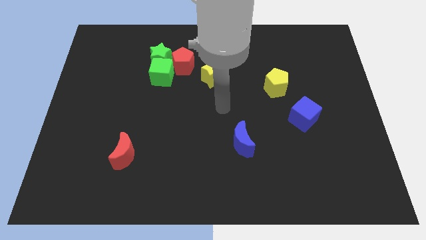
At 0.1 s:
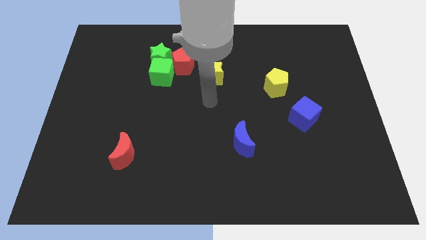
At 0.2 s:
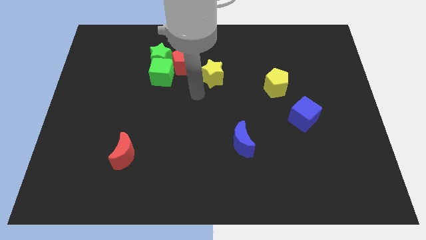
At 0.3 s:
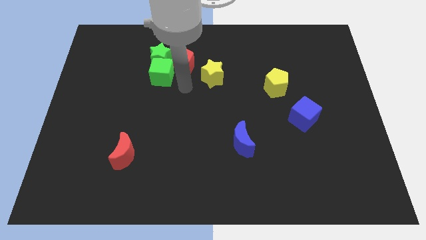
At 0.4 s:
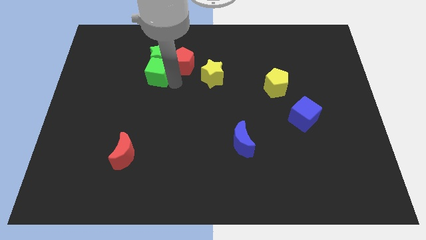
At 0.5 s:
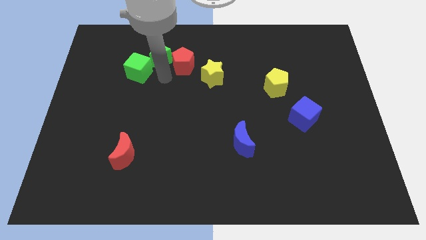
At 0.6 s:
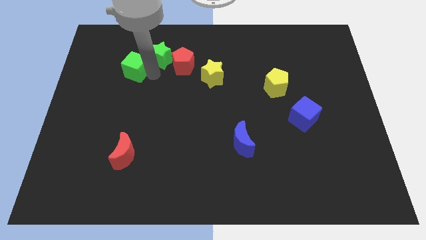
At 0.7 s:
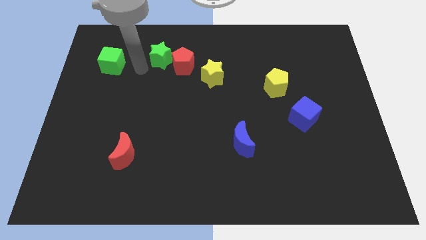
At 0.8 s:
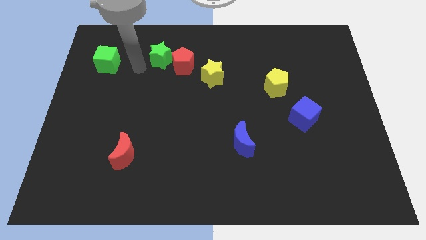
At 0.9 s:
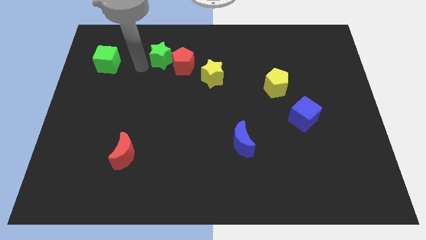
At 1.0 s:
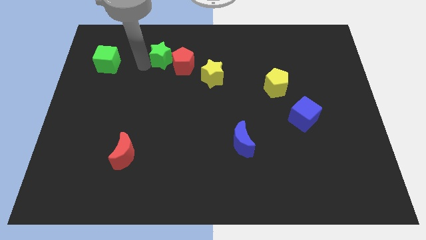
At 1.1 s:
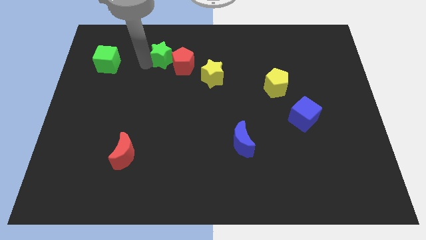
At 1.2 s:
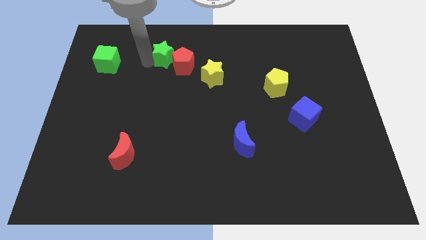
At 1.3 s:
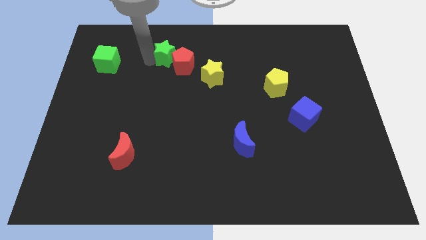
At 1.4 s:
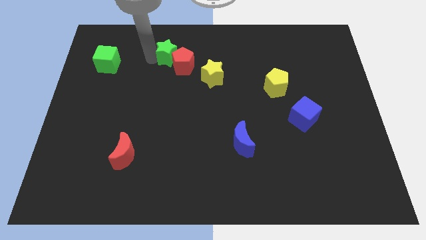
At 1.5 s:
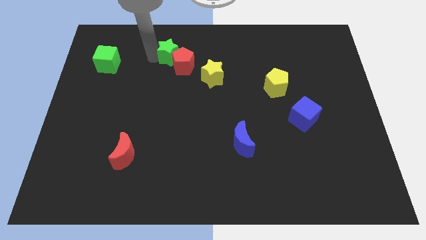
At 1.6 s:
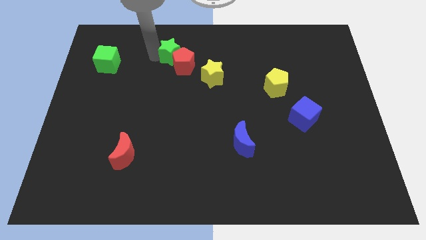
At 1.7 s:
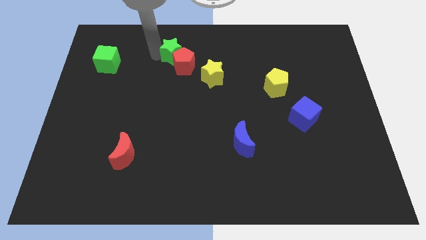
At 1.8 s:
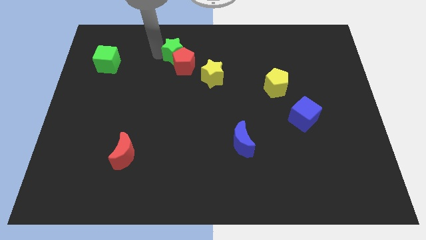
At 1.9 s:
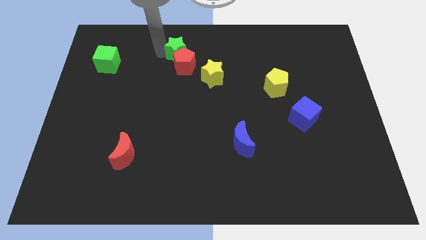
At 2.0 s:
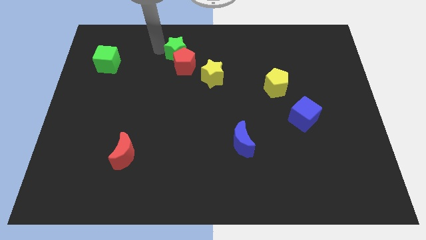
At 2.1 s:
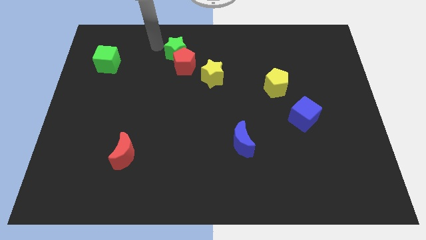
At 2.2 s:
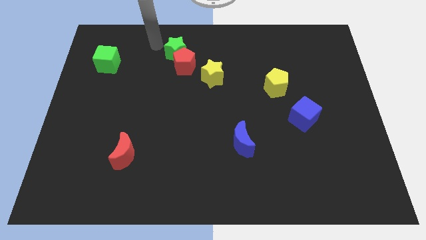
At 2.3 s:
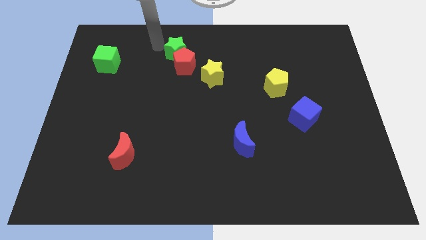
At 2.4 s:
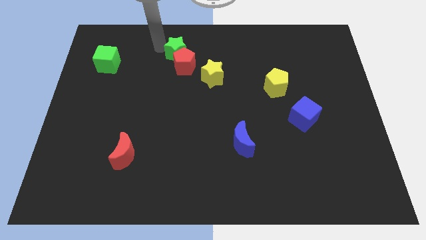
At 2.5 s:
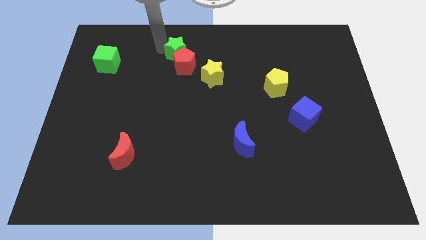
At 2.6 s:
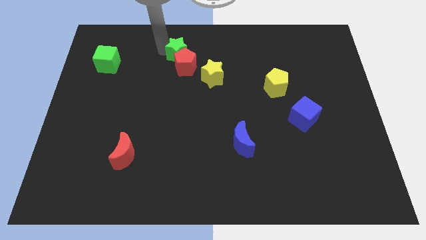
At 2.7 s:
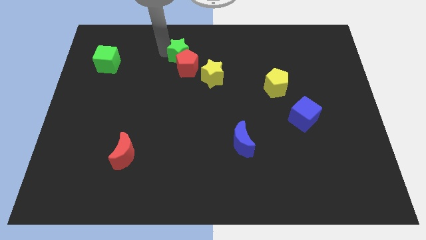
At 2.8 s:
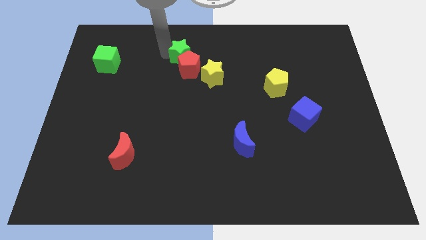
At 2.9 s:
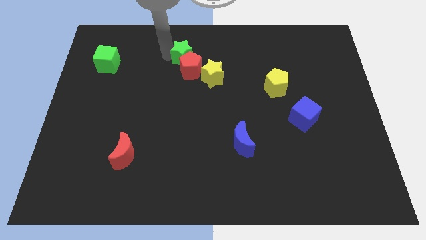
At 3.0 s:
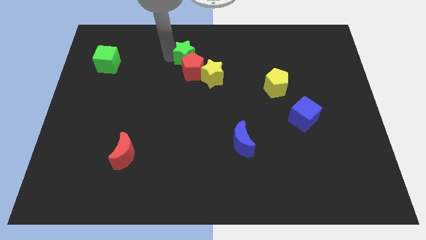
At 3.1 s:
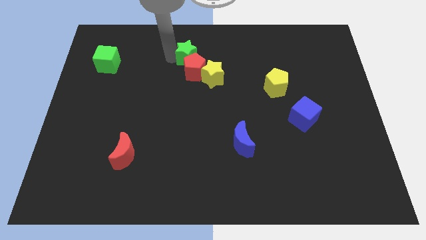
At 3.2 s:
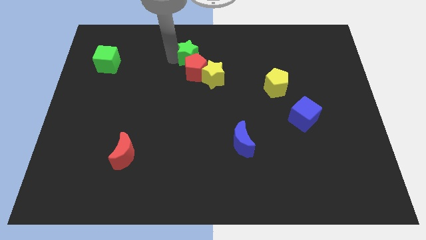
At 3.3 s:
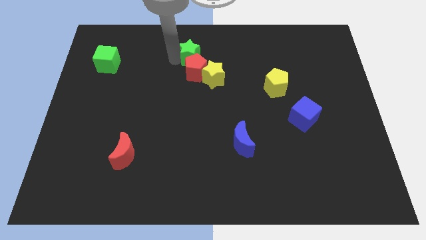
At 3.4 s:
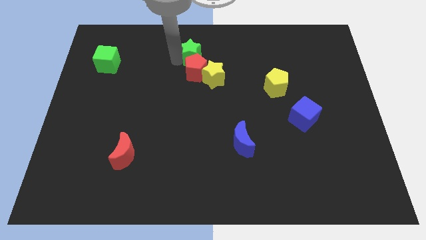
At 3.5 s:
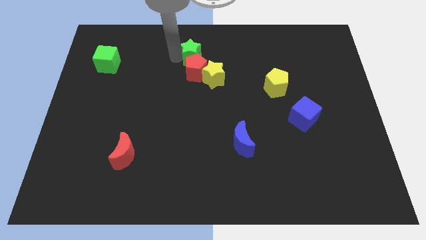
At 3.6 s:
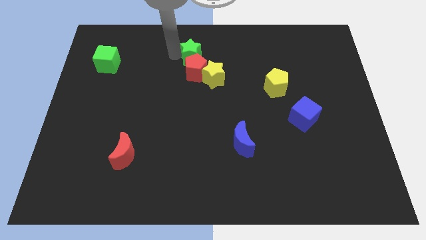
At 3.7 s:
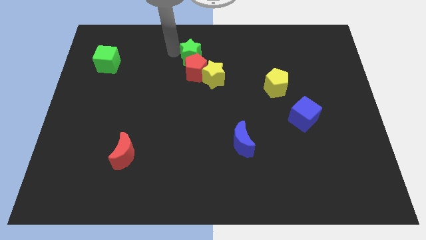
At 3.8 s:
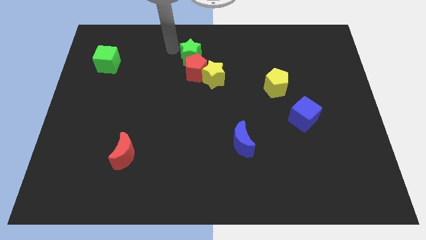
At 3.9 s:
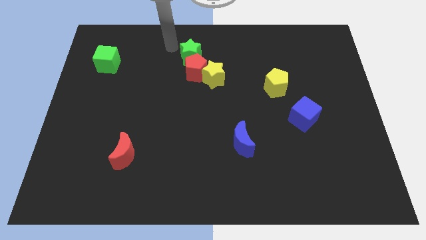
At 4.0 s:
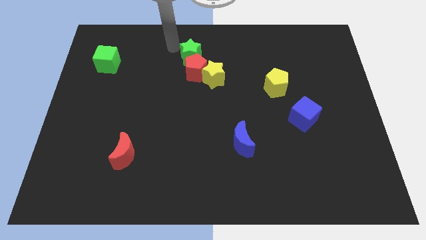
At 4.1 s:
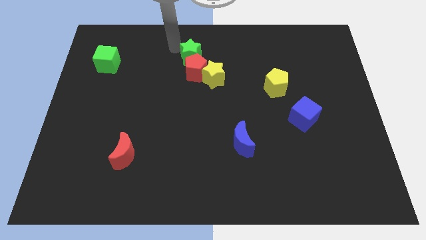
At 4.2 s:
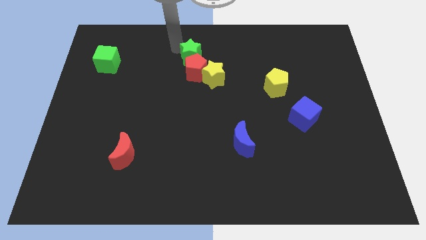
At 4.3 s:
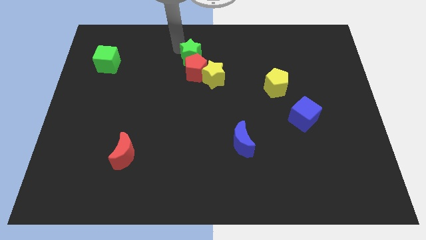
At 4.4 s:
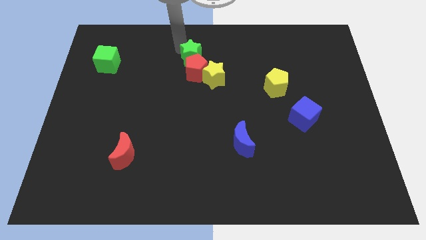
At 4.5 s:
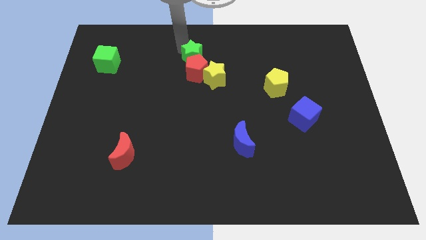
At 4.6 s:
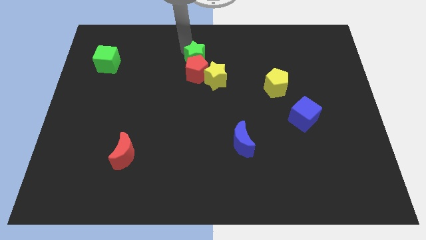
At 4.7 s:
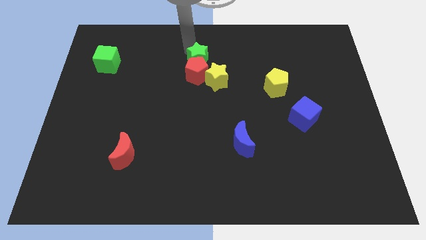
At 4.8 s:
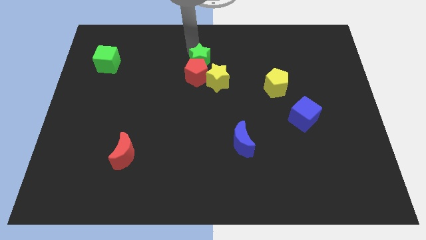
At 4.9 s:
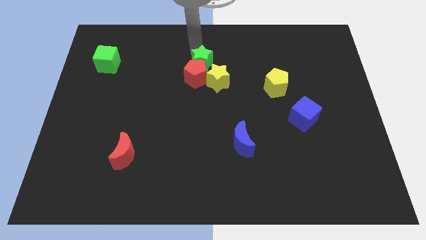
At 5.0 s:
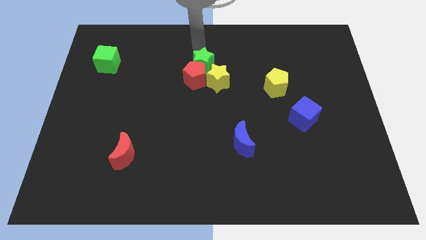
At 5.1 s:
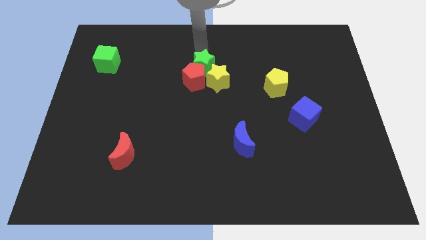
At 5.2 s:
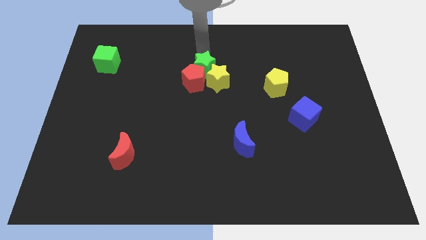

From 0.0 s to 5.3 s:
put the green star to the yellow star

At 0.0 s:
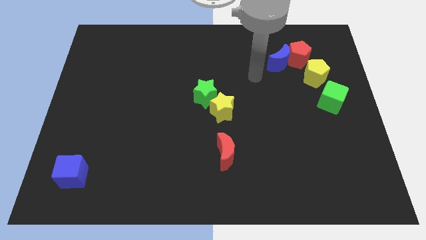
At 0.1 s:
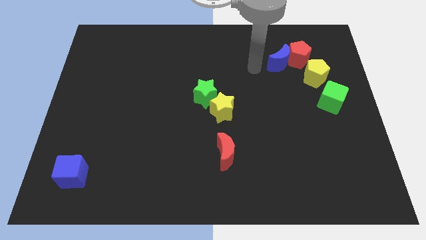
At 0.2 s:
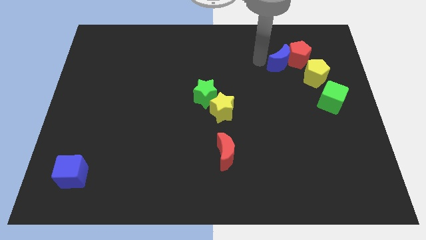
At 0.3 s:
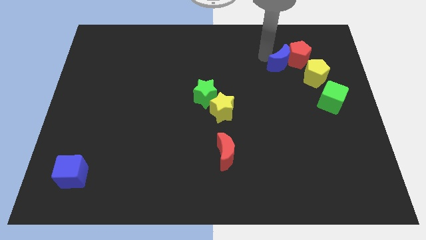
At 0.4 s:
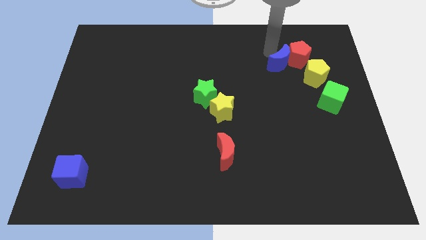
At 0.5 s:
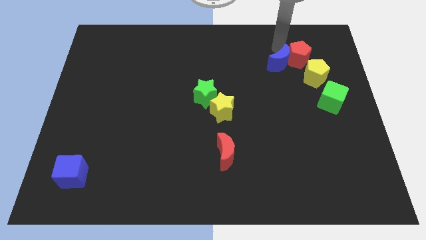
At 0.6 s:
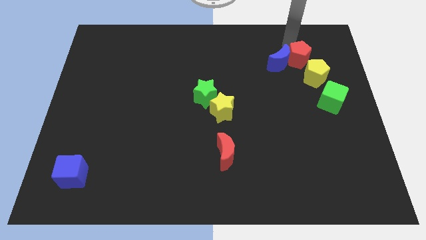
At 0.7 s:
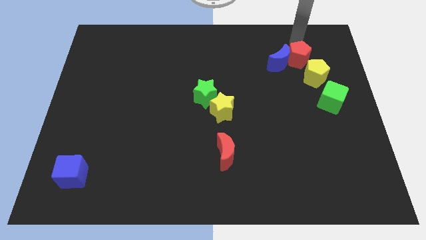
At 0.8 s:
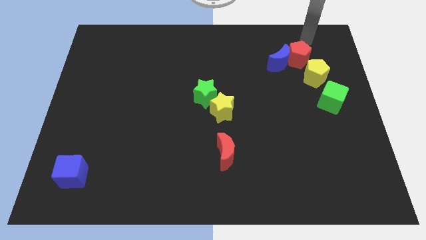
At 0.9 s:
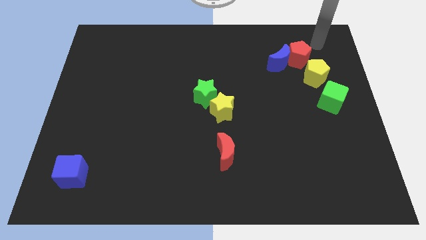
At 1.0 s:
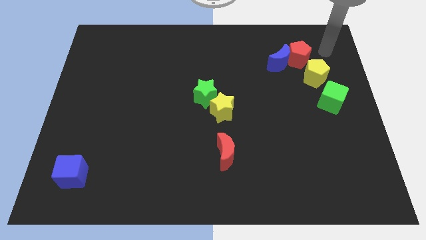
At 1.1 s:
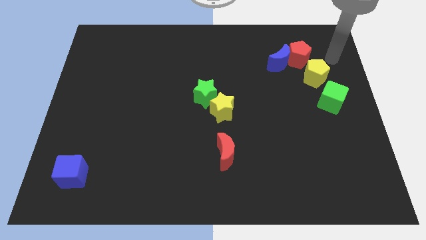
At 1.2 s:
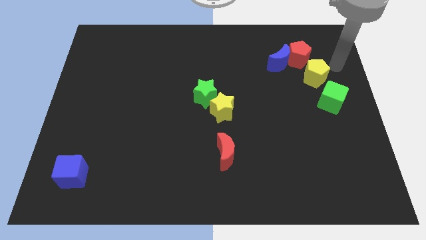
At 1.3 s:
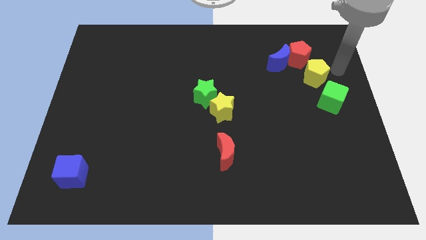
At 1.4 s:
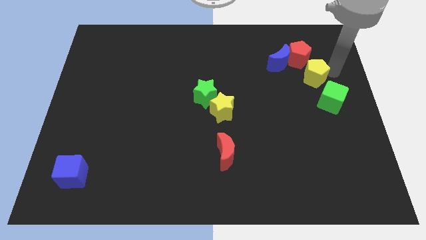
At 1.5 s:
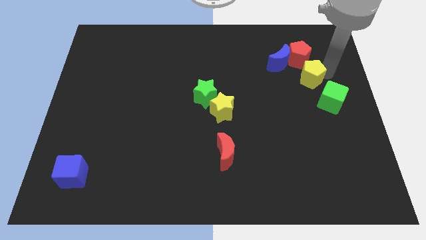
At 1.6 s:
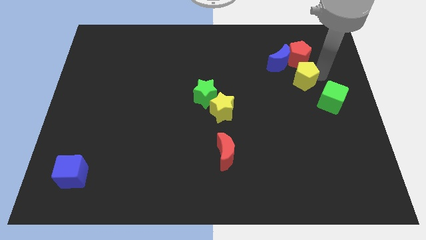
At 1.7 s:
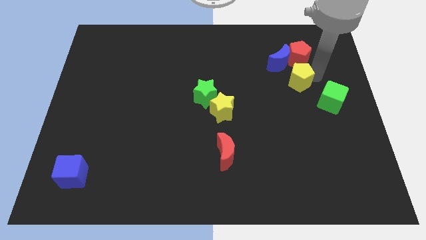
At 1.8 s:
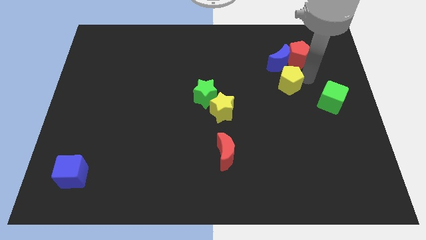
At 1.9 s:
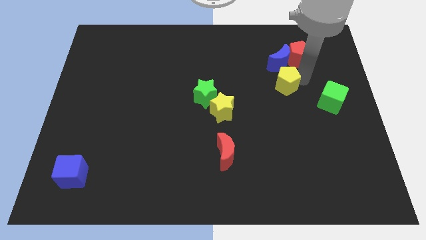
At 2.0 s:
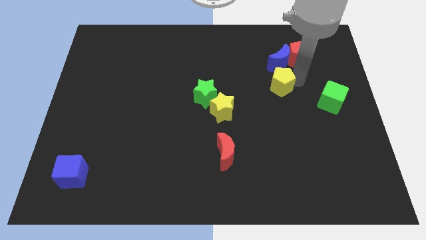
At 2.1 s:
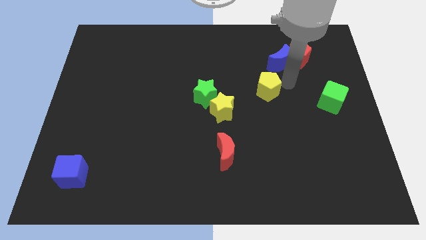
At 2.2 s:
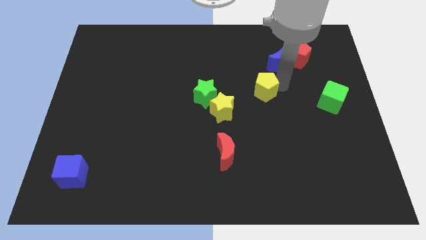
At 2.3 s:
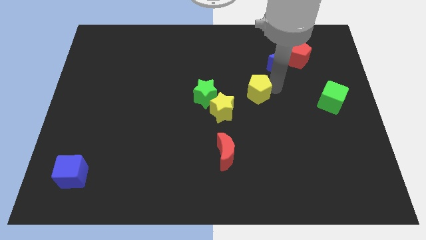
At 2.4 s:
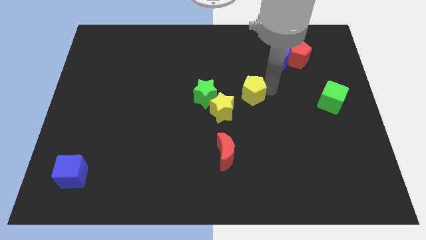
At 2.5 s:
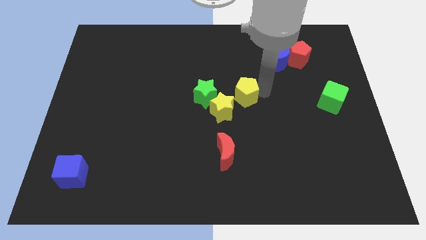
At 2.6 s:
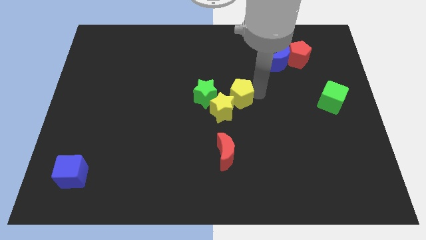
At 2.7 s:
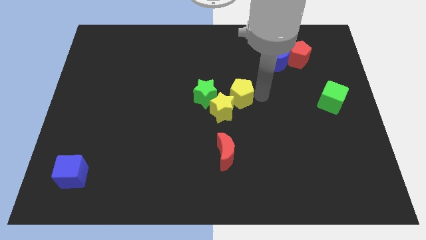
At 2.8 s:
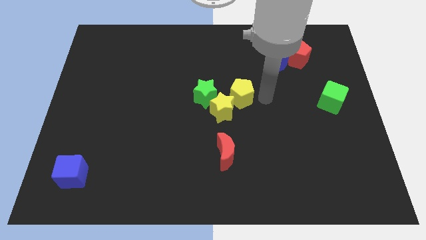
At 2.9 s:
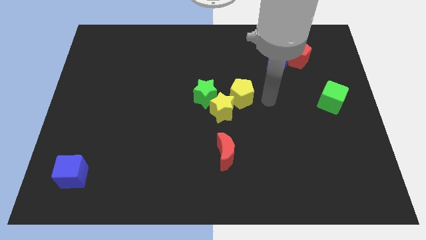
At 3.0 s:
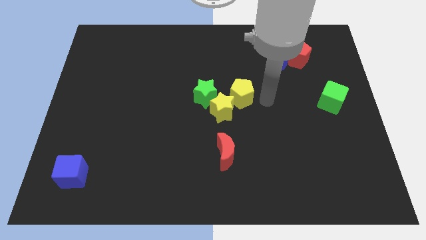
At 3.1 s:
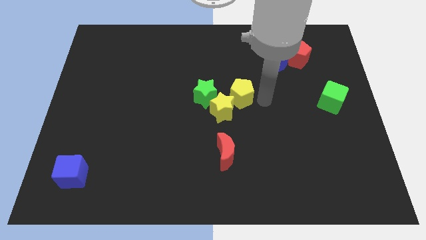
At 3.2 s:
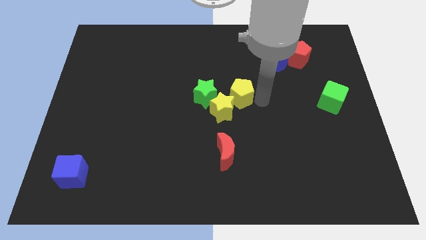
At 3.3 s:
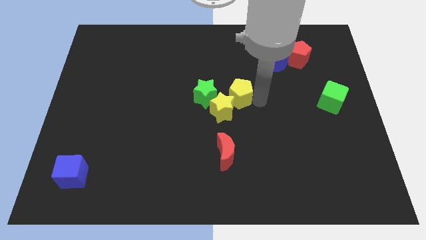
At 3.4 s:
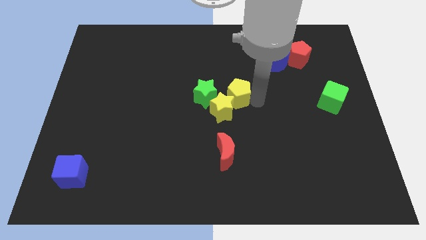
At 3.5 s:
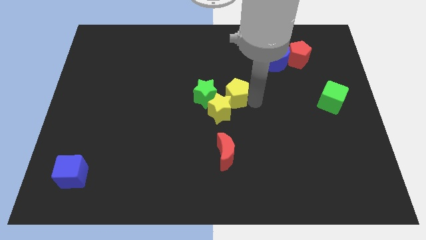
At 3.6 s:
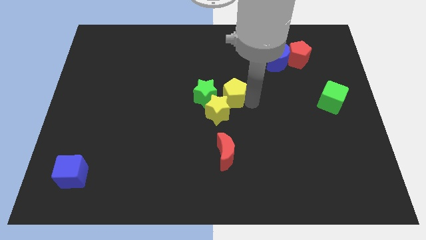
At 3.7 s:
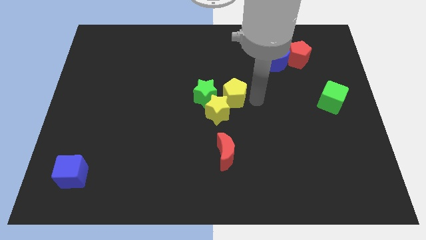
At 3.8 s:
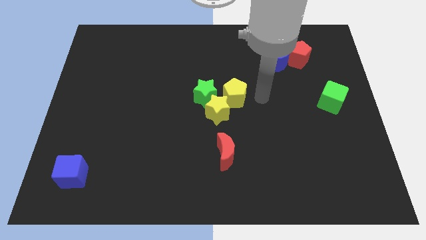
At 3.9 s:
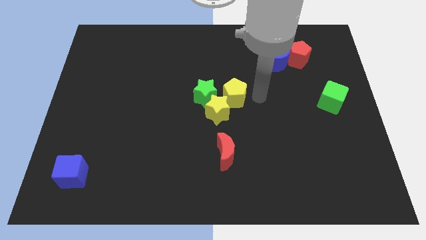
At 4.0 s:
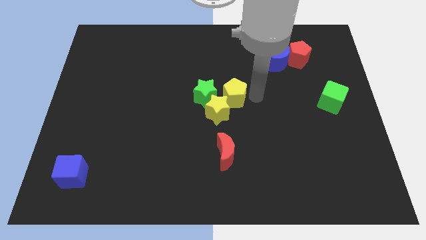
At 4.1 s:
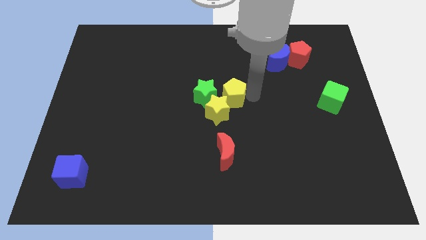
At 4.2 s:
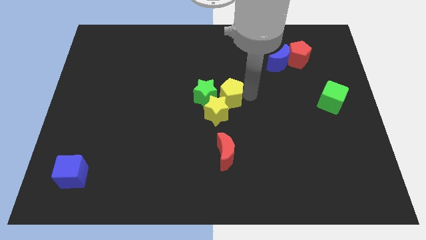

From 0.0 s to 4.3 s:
move the yellow pentagon towards the green star
